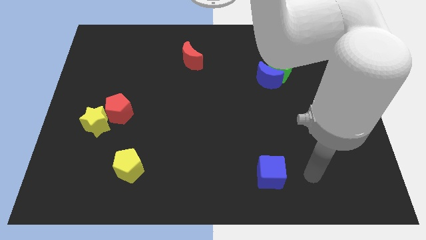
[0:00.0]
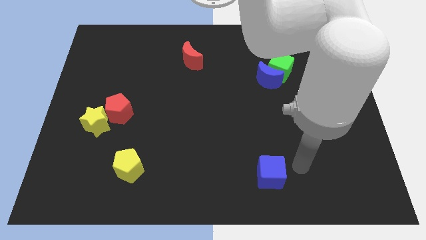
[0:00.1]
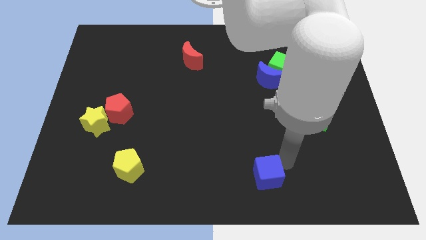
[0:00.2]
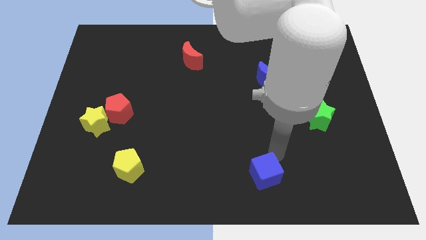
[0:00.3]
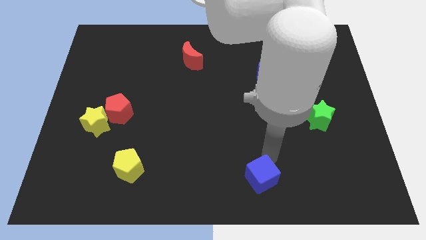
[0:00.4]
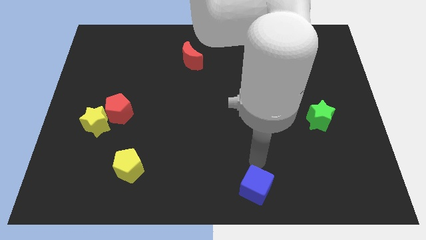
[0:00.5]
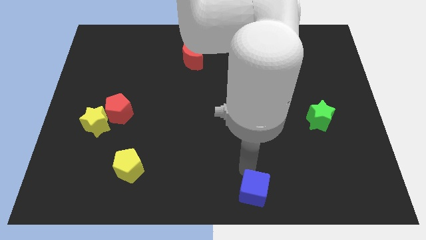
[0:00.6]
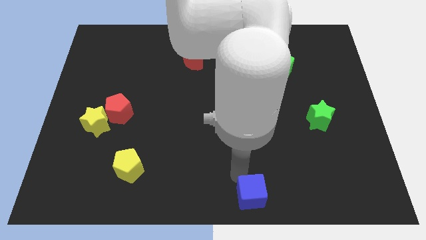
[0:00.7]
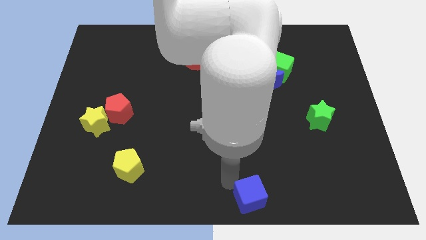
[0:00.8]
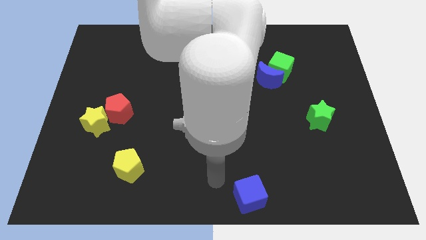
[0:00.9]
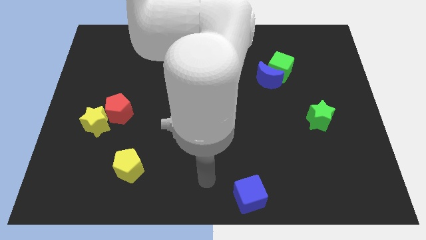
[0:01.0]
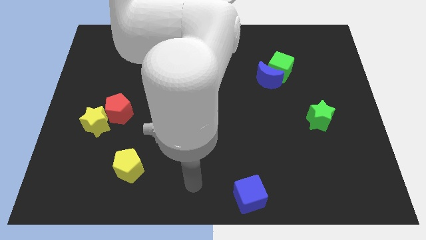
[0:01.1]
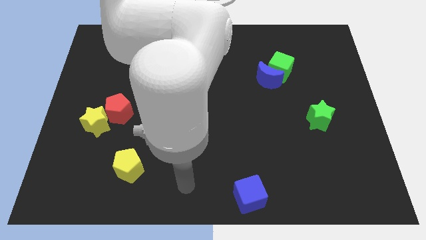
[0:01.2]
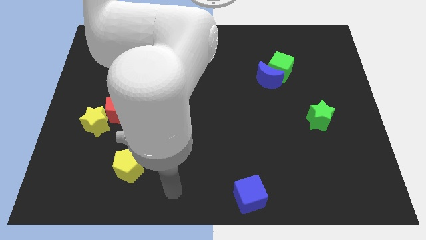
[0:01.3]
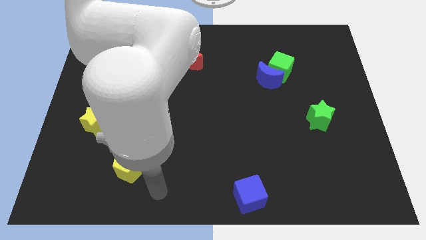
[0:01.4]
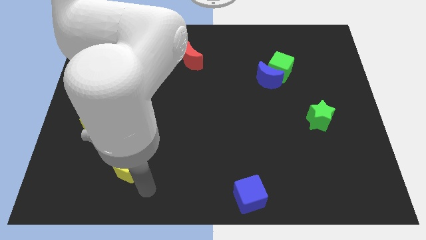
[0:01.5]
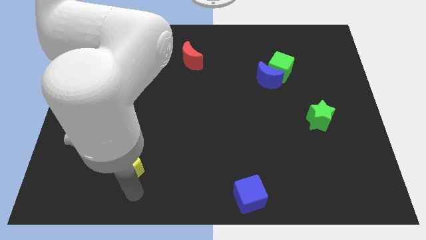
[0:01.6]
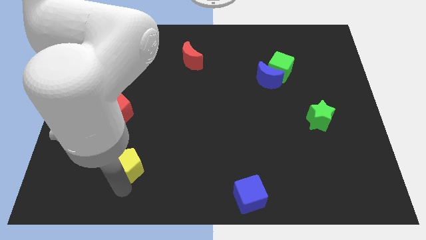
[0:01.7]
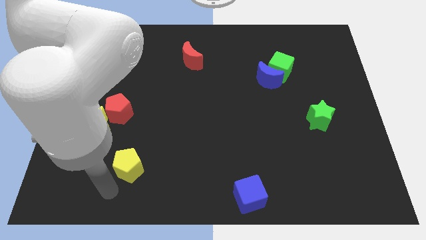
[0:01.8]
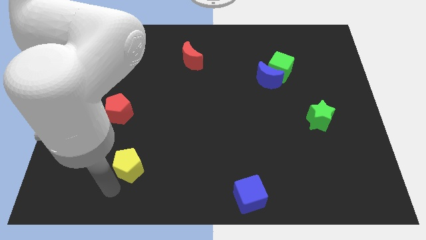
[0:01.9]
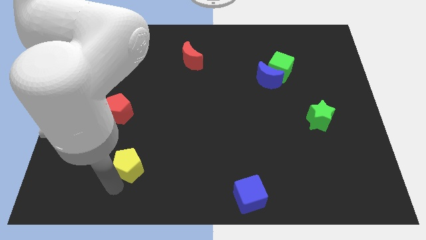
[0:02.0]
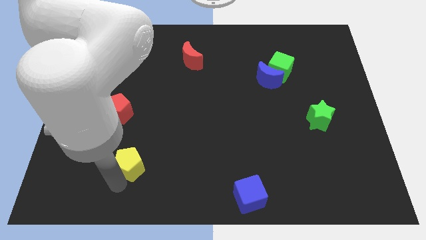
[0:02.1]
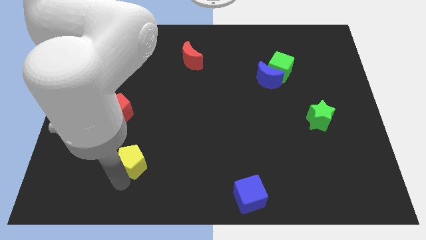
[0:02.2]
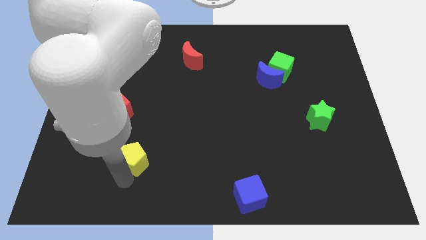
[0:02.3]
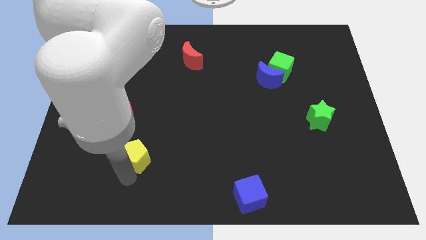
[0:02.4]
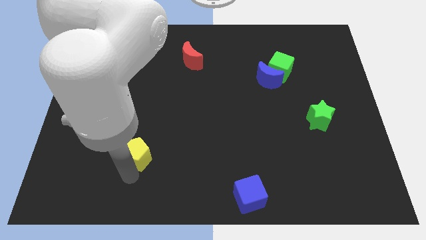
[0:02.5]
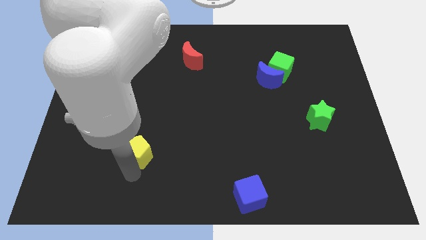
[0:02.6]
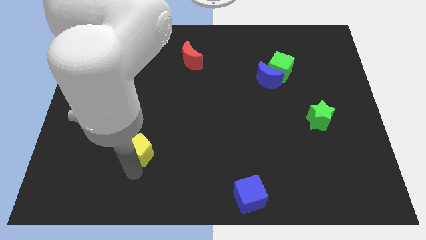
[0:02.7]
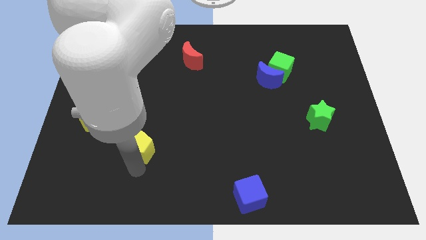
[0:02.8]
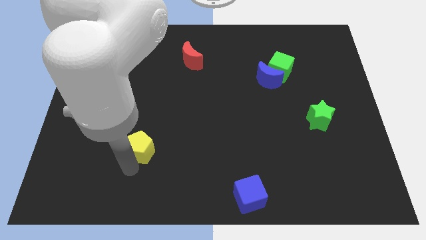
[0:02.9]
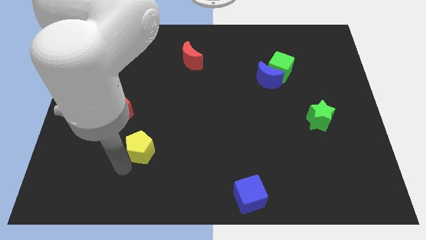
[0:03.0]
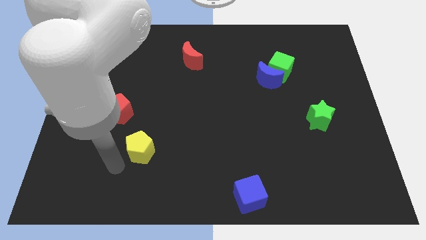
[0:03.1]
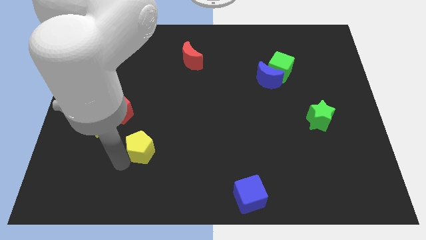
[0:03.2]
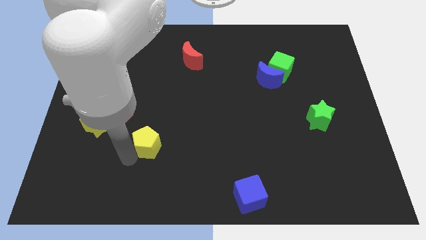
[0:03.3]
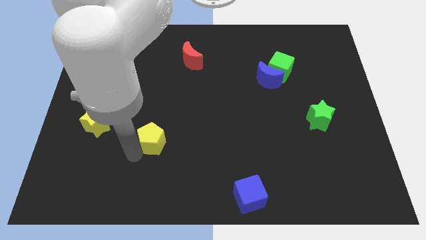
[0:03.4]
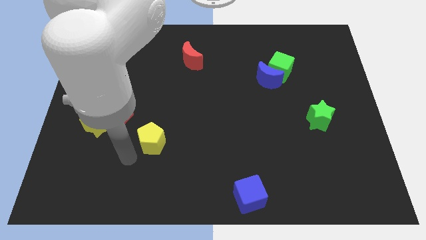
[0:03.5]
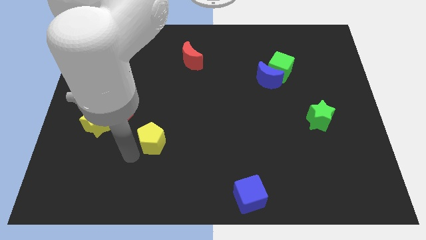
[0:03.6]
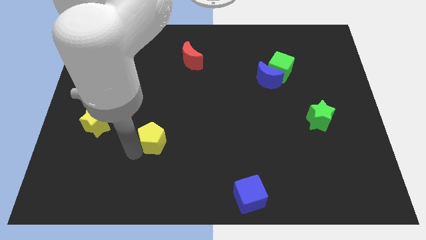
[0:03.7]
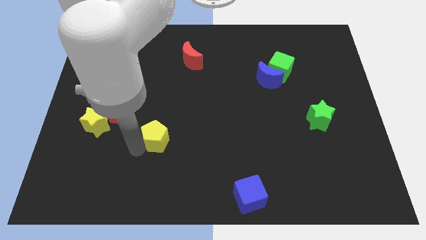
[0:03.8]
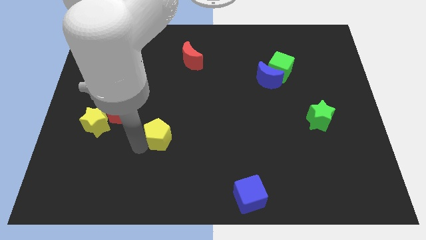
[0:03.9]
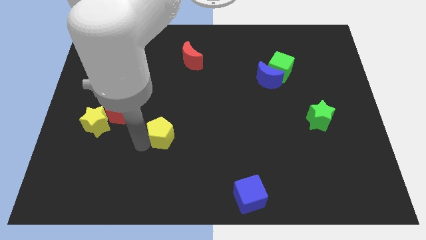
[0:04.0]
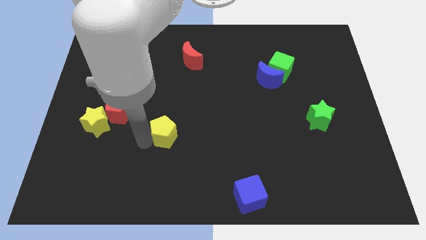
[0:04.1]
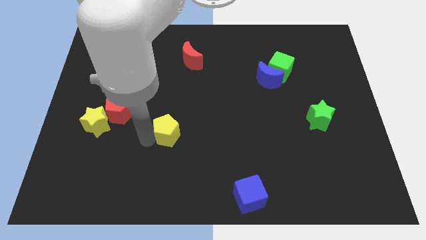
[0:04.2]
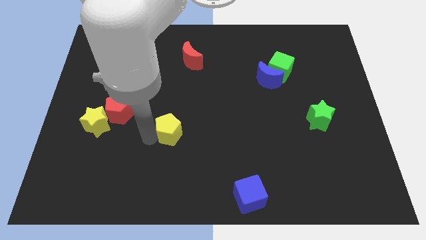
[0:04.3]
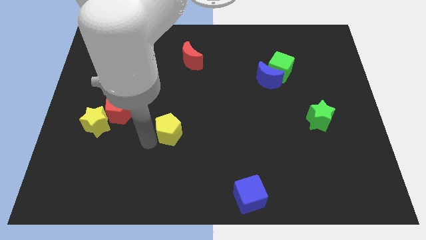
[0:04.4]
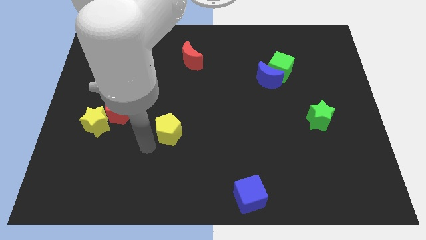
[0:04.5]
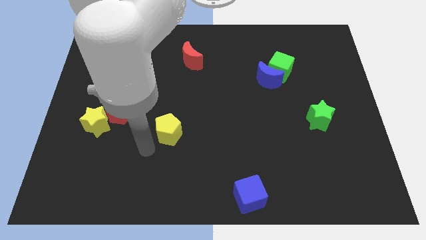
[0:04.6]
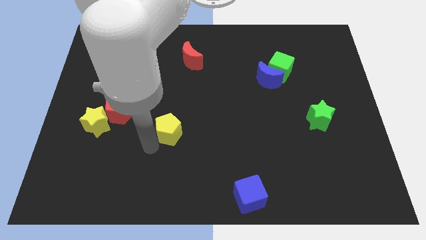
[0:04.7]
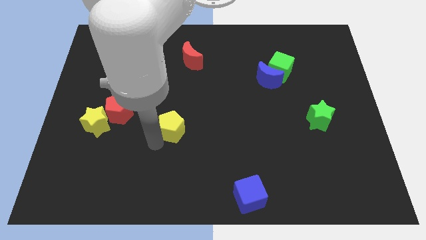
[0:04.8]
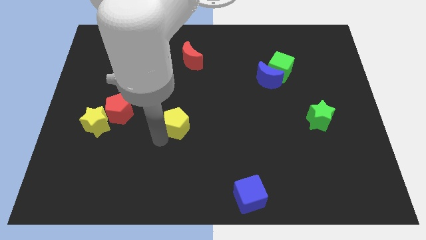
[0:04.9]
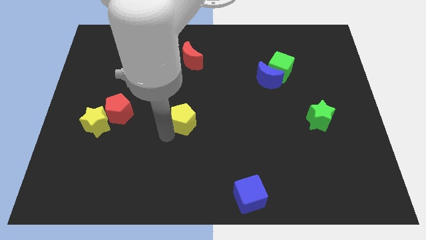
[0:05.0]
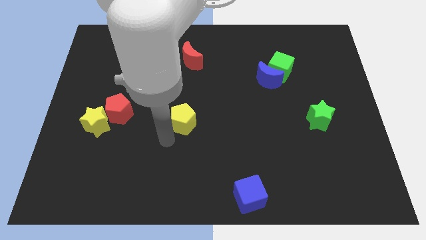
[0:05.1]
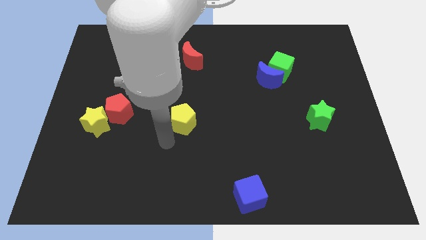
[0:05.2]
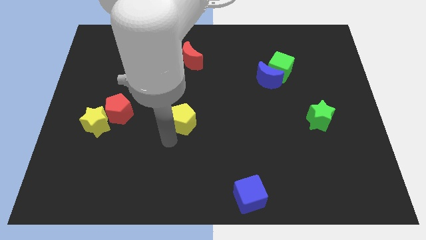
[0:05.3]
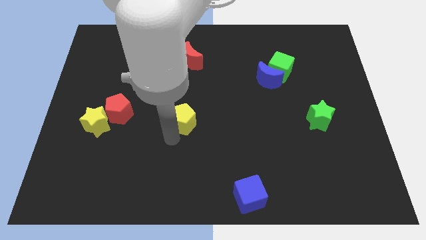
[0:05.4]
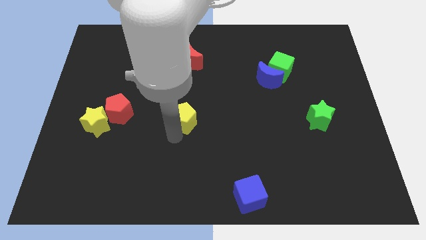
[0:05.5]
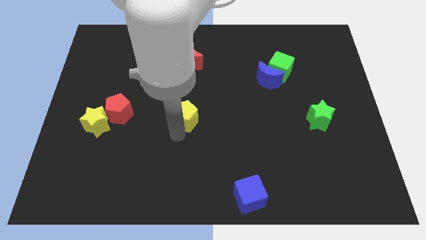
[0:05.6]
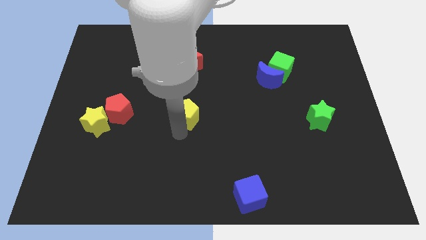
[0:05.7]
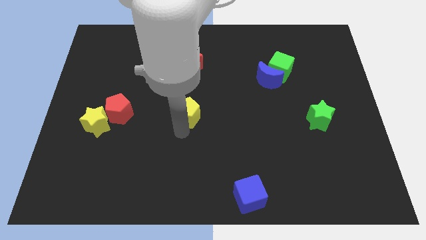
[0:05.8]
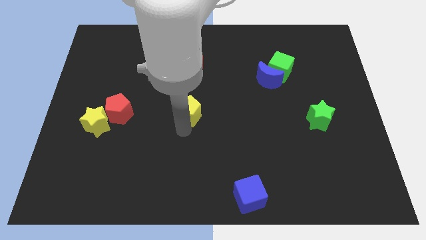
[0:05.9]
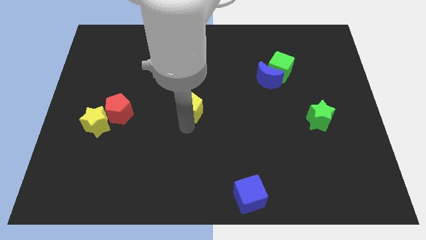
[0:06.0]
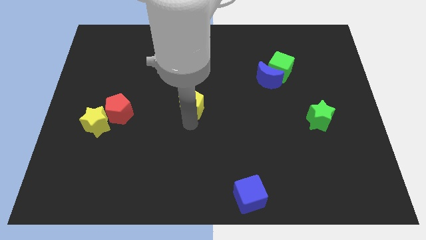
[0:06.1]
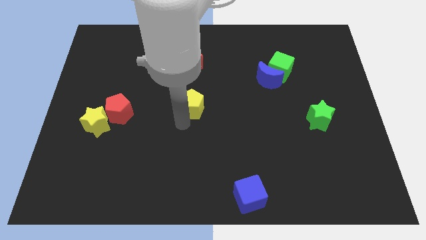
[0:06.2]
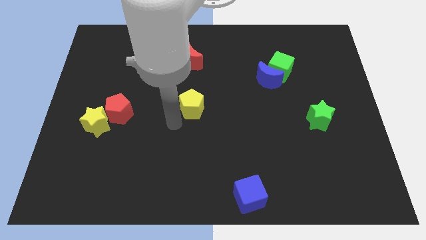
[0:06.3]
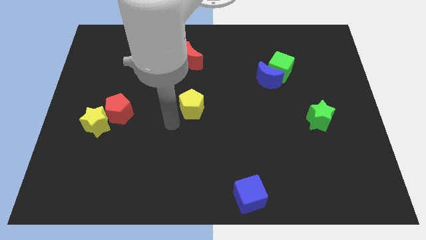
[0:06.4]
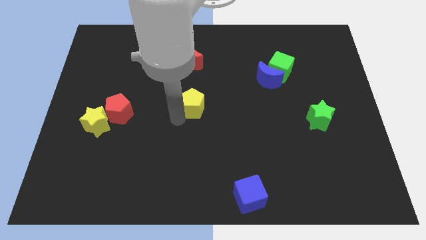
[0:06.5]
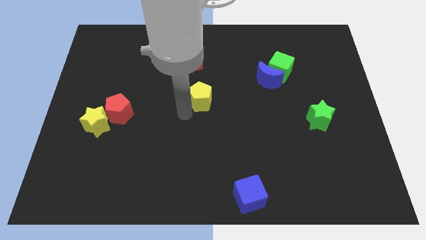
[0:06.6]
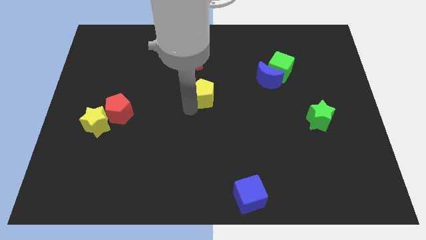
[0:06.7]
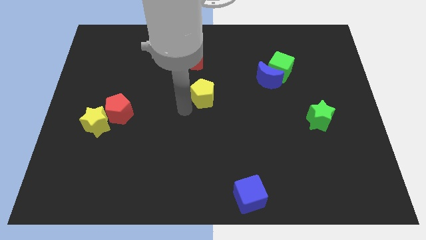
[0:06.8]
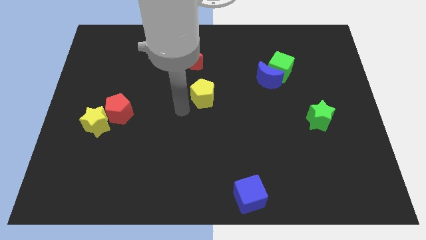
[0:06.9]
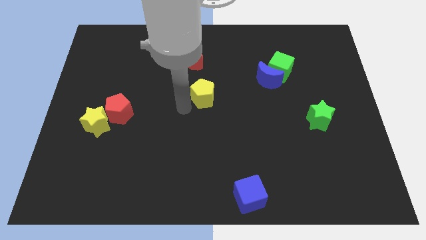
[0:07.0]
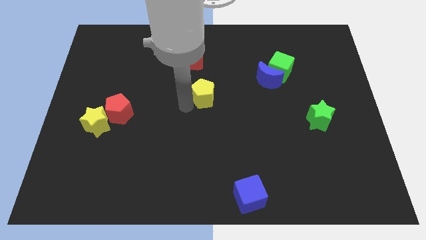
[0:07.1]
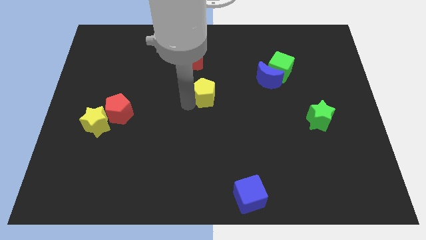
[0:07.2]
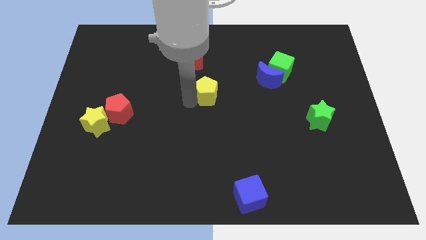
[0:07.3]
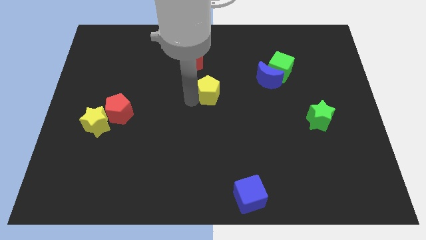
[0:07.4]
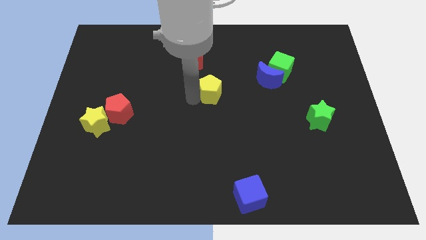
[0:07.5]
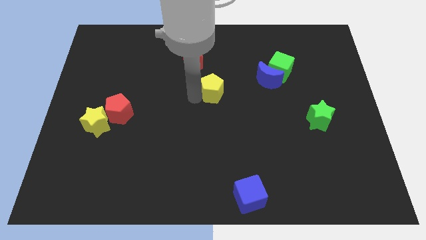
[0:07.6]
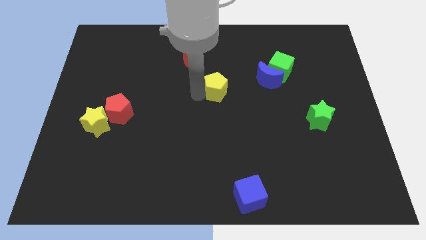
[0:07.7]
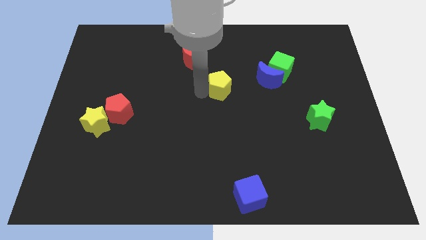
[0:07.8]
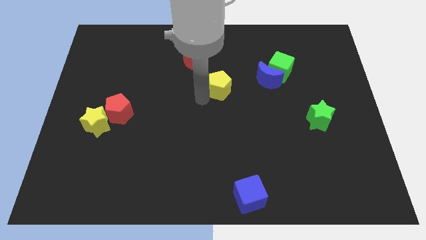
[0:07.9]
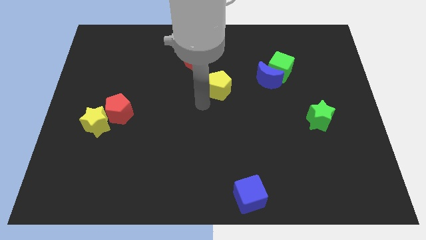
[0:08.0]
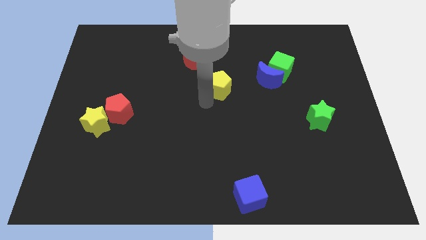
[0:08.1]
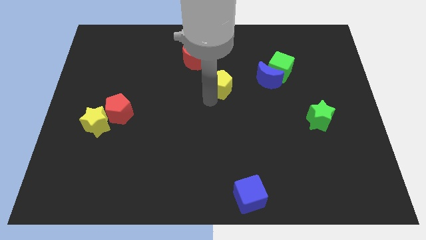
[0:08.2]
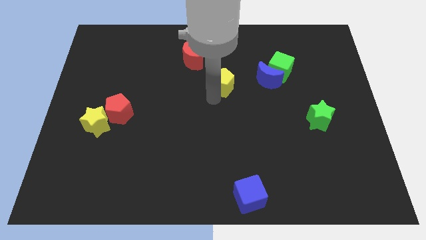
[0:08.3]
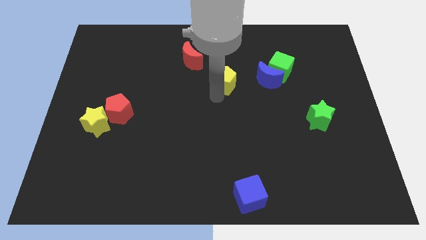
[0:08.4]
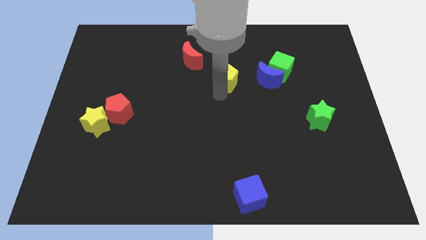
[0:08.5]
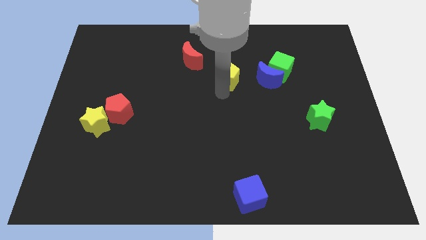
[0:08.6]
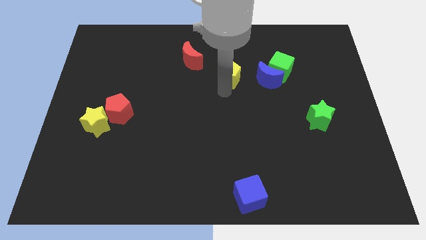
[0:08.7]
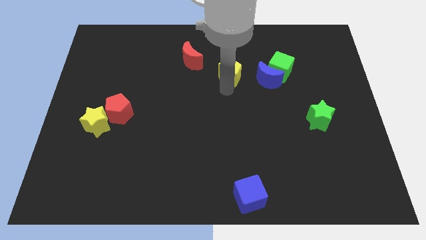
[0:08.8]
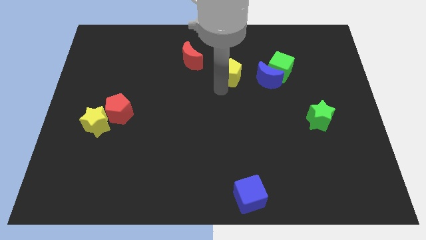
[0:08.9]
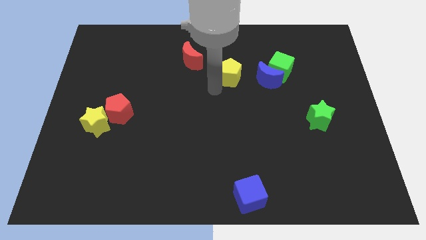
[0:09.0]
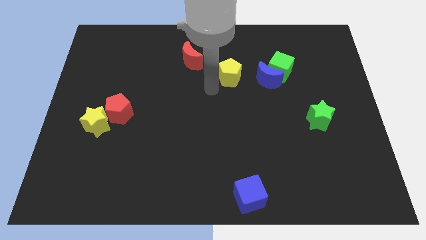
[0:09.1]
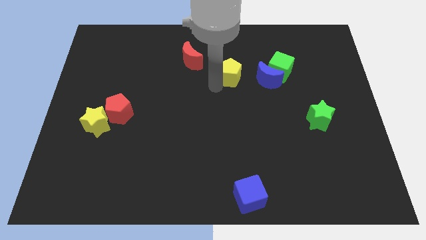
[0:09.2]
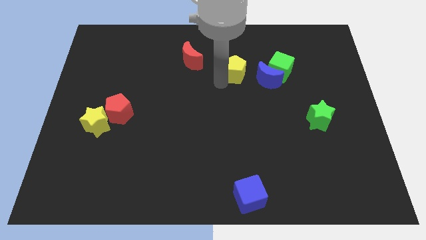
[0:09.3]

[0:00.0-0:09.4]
move the yellow pentagon to the top left of the blue moon
